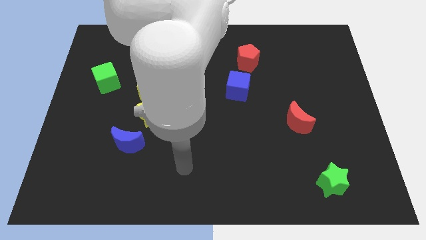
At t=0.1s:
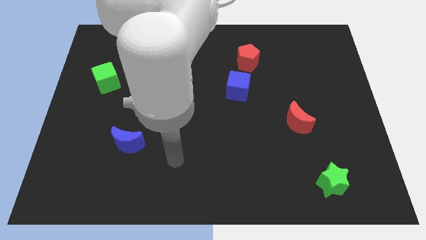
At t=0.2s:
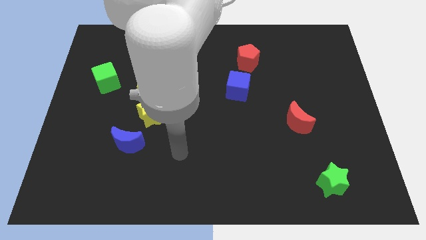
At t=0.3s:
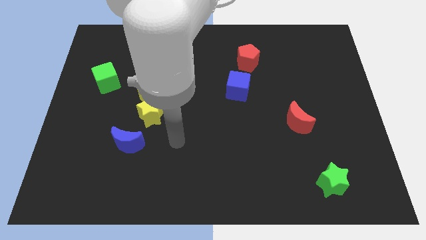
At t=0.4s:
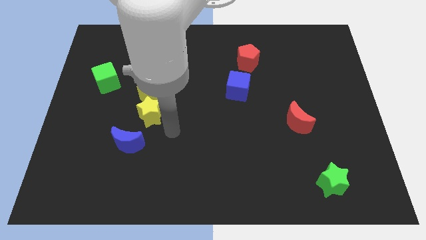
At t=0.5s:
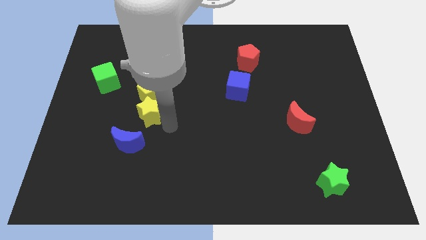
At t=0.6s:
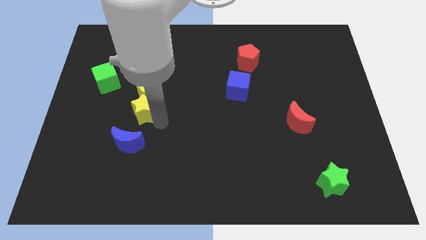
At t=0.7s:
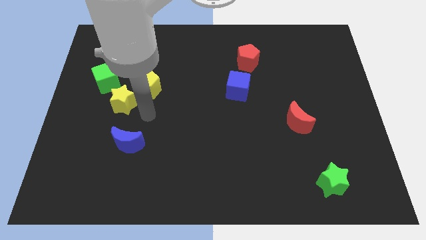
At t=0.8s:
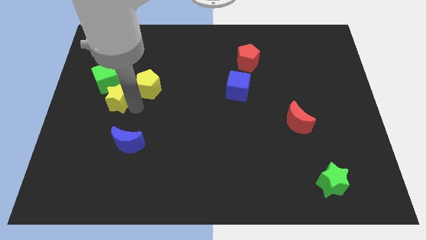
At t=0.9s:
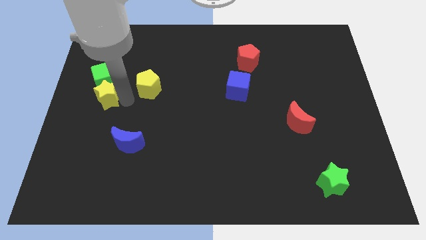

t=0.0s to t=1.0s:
move the yellow pentagon away from the yellow star

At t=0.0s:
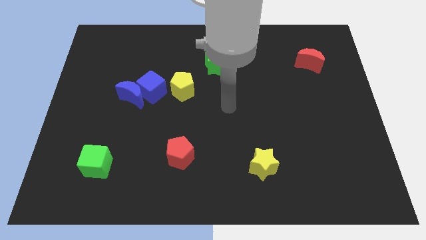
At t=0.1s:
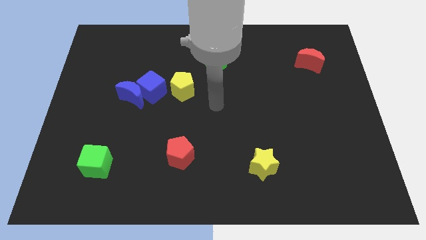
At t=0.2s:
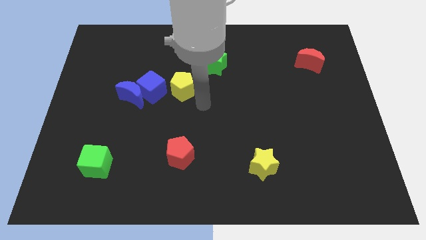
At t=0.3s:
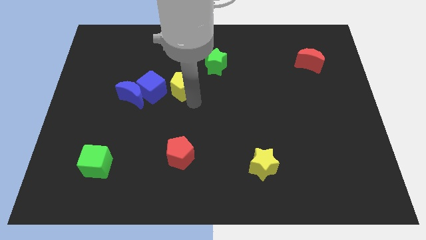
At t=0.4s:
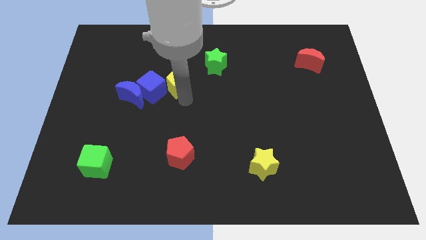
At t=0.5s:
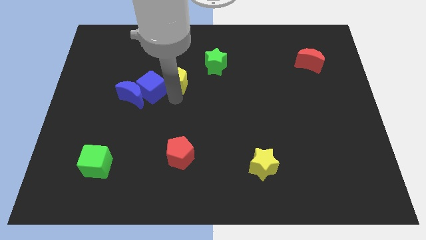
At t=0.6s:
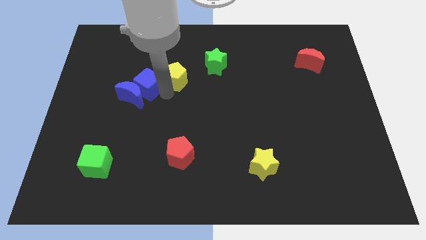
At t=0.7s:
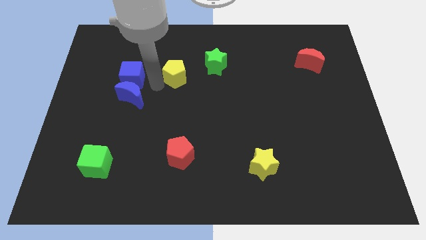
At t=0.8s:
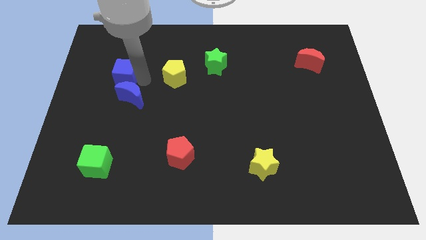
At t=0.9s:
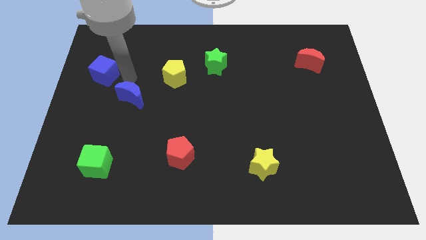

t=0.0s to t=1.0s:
separate the blue moon from the blue cube

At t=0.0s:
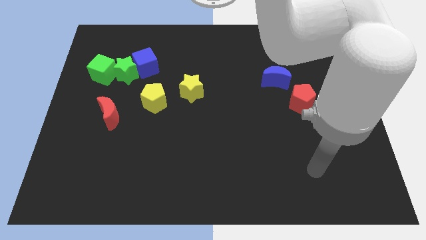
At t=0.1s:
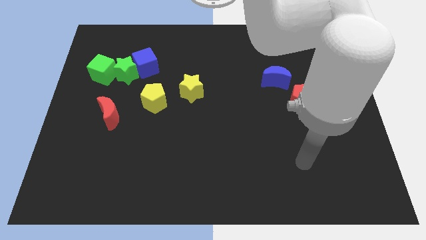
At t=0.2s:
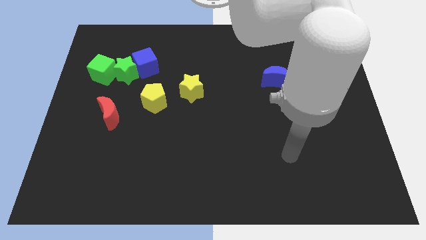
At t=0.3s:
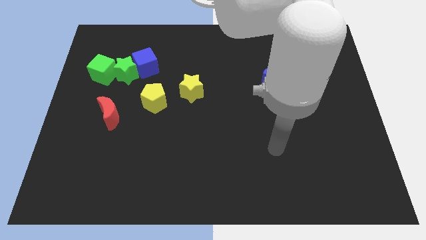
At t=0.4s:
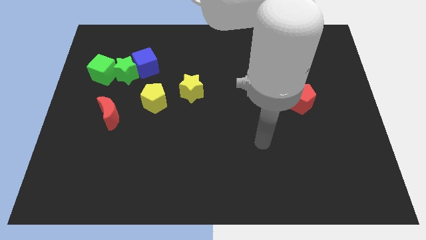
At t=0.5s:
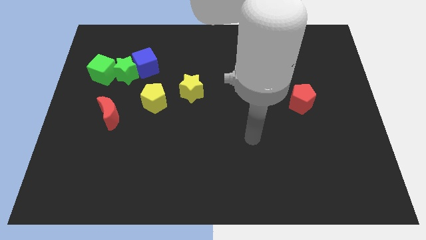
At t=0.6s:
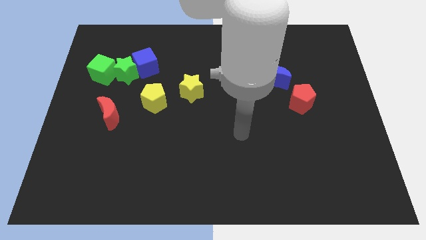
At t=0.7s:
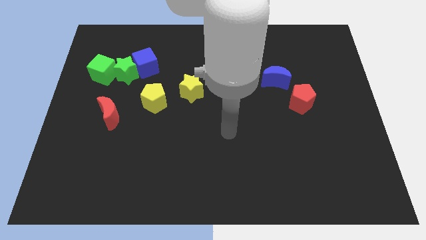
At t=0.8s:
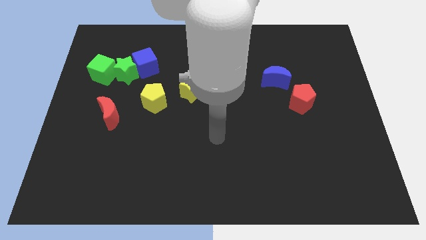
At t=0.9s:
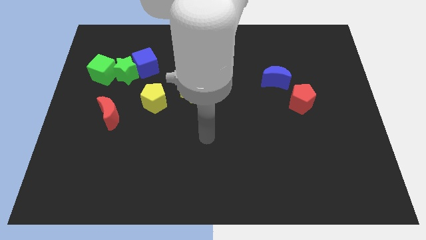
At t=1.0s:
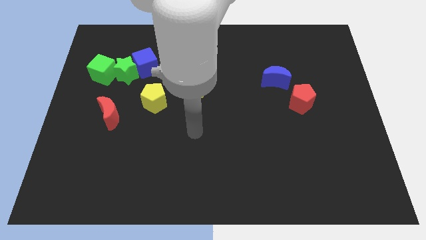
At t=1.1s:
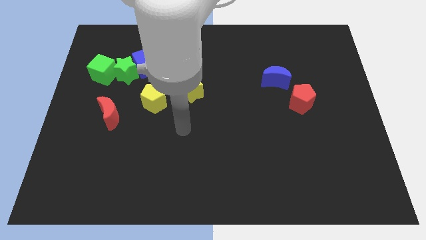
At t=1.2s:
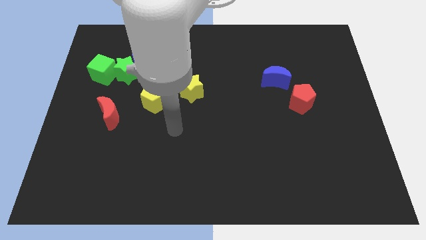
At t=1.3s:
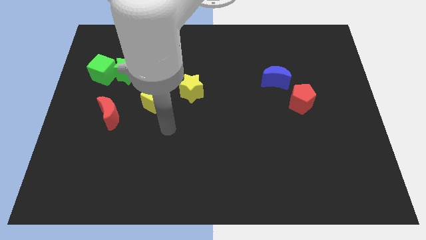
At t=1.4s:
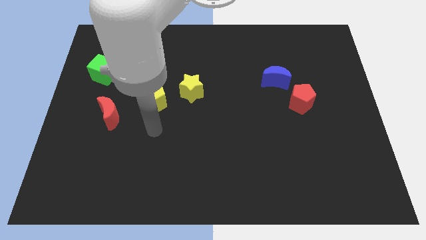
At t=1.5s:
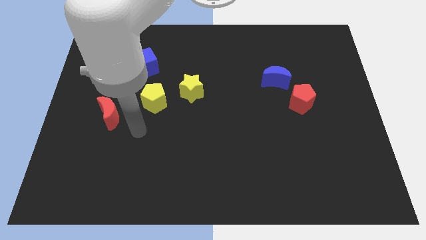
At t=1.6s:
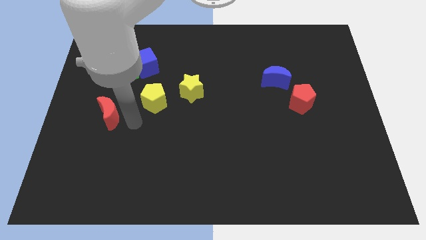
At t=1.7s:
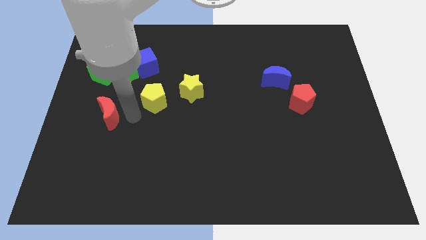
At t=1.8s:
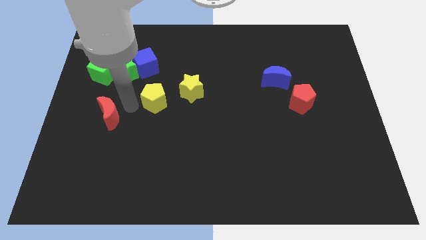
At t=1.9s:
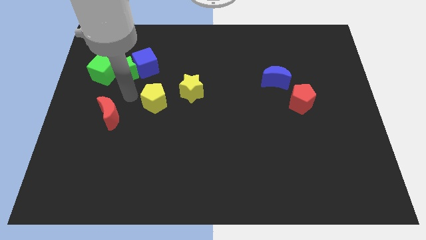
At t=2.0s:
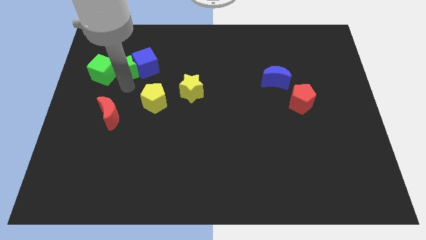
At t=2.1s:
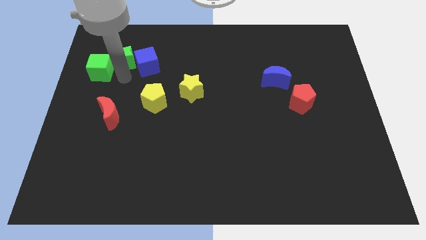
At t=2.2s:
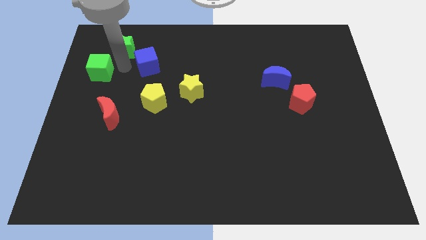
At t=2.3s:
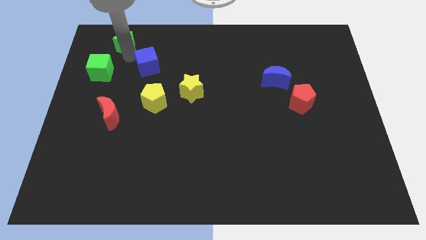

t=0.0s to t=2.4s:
move the blue cube away from the green star

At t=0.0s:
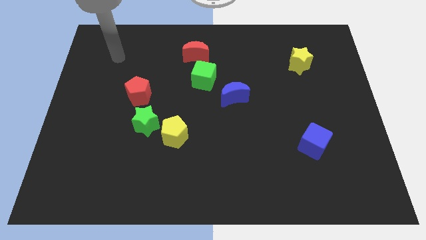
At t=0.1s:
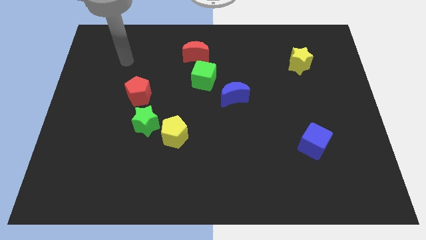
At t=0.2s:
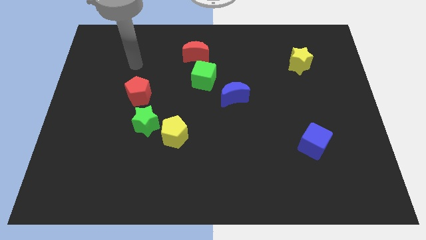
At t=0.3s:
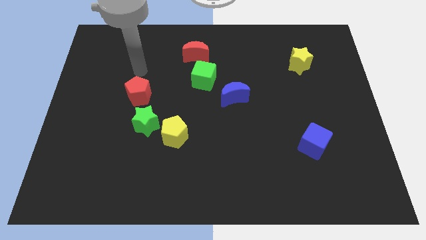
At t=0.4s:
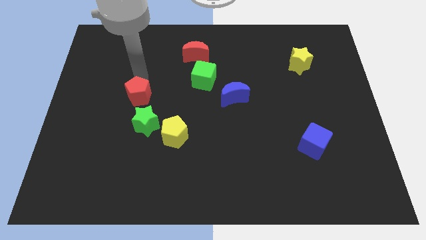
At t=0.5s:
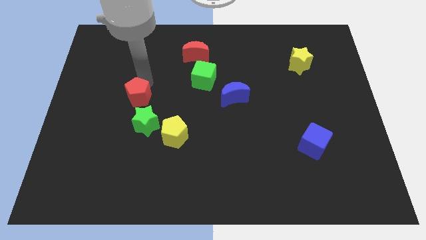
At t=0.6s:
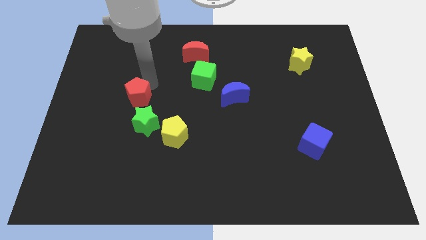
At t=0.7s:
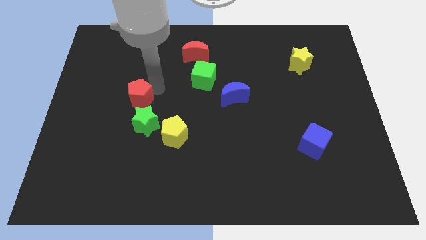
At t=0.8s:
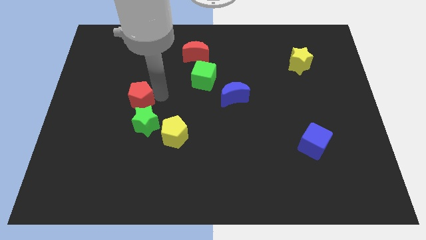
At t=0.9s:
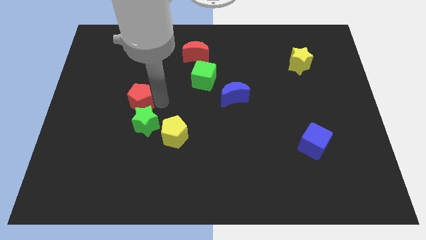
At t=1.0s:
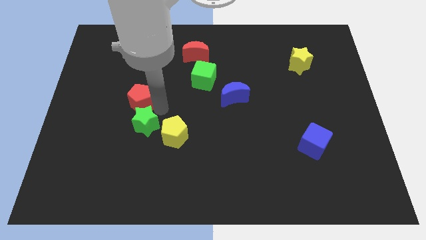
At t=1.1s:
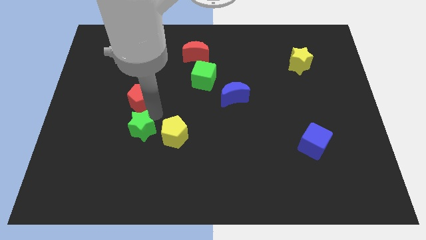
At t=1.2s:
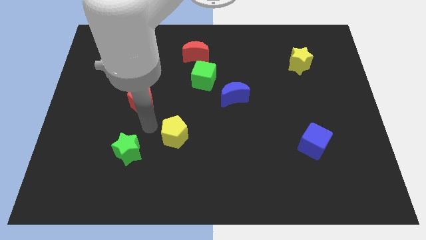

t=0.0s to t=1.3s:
move the yellow pentagon away from the green star

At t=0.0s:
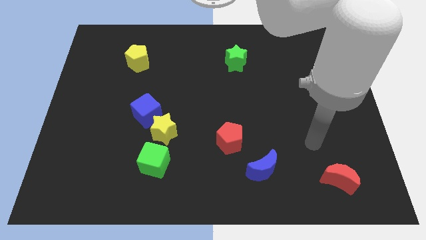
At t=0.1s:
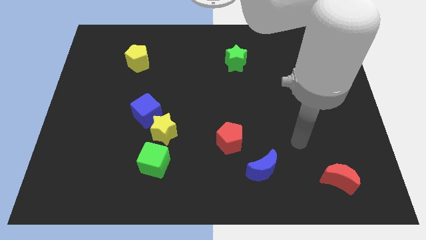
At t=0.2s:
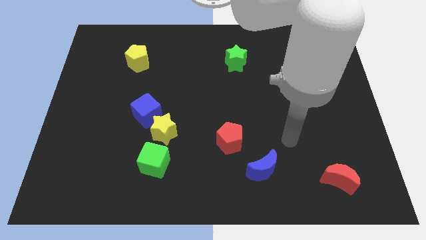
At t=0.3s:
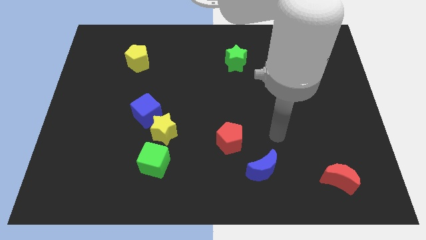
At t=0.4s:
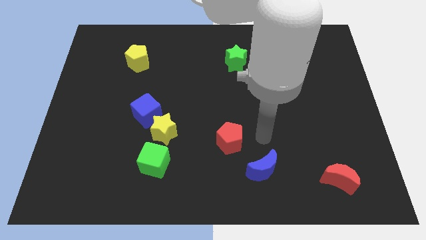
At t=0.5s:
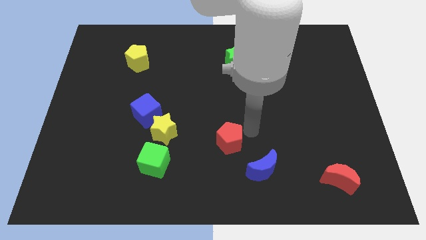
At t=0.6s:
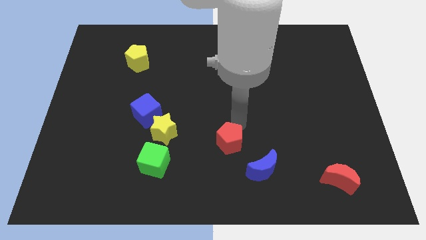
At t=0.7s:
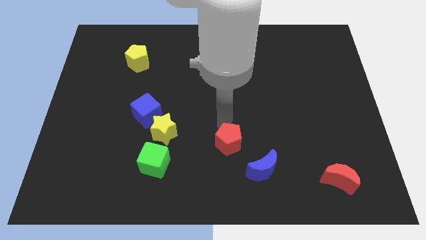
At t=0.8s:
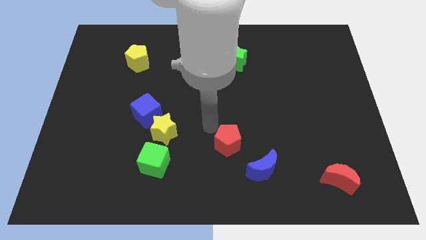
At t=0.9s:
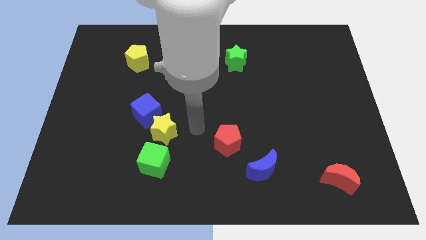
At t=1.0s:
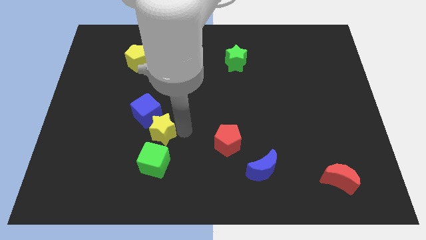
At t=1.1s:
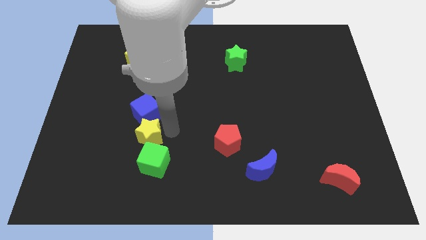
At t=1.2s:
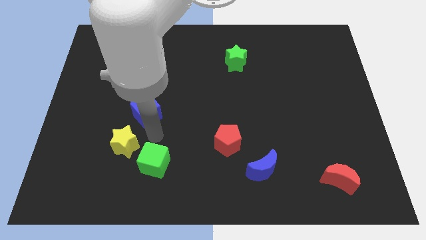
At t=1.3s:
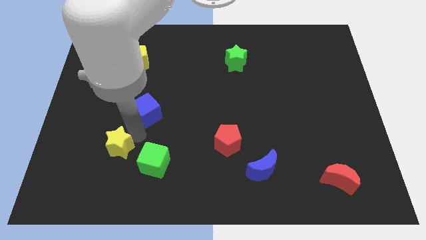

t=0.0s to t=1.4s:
move the blue cube away from the yellow star

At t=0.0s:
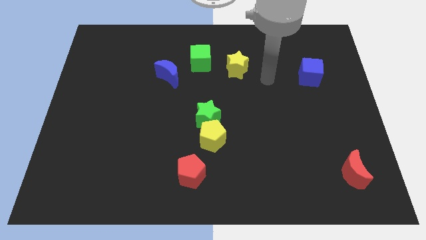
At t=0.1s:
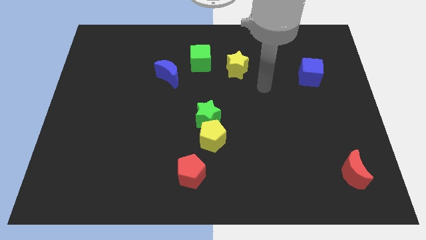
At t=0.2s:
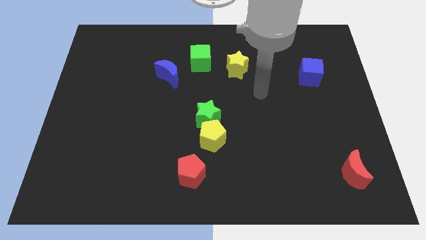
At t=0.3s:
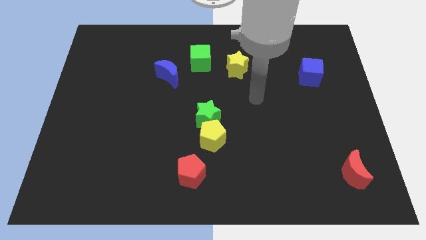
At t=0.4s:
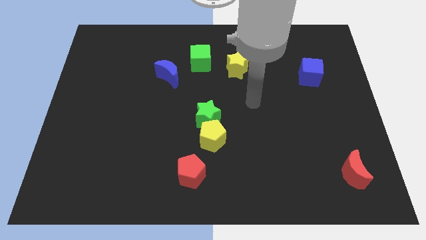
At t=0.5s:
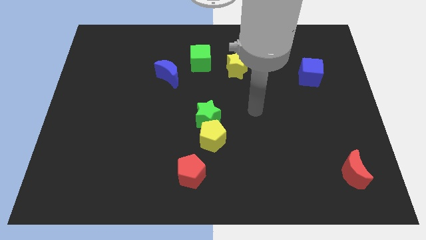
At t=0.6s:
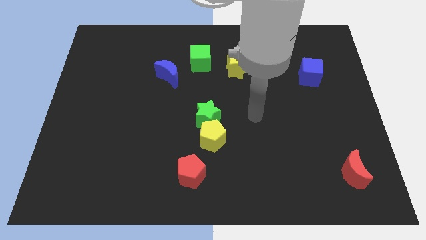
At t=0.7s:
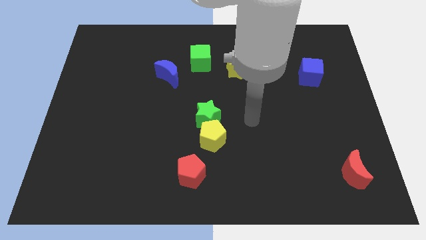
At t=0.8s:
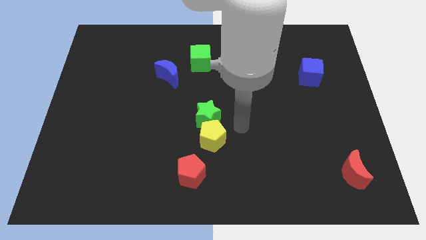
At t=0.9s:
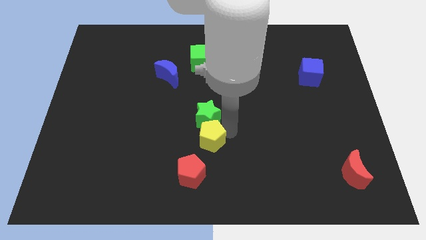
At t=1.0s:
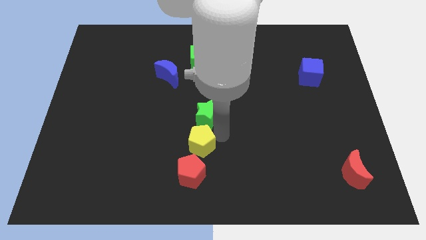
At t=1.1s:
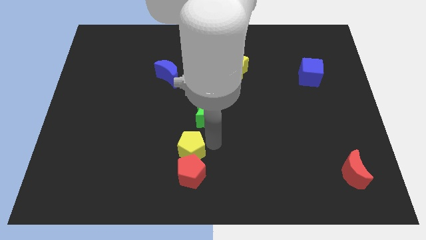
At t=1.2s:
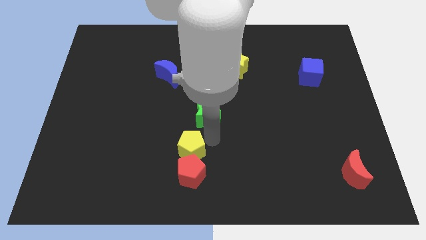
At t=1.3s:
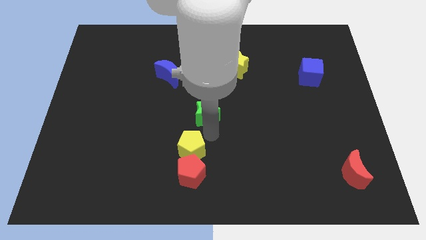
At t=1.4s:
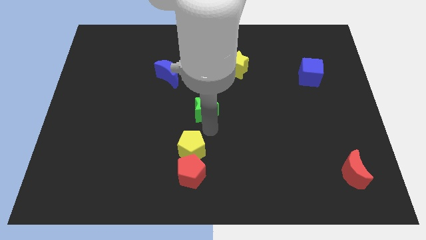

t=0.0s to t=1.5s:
move the green star away from the yellow pentagon

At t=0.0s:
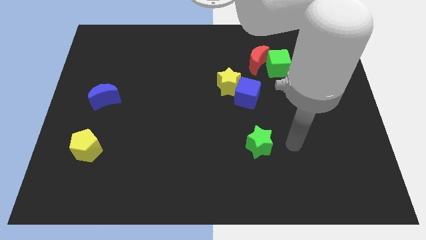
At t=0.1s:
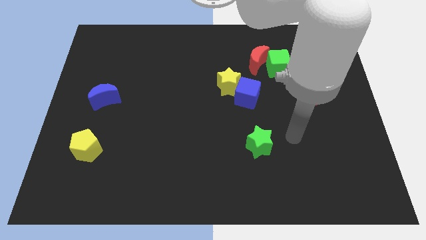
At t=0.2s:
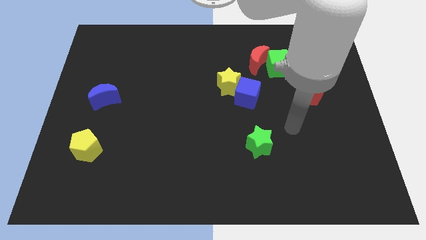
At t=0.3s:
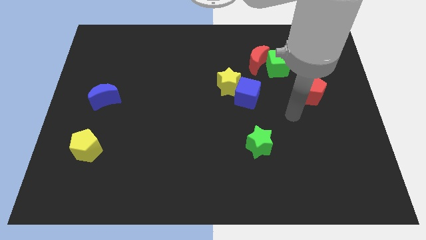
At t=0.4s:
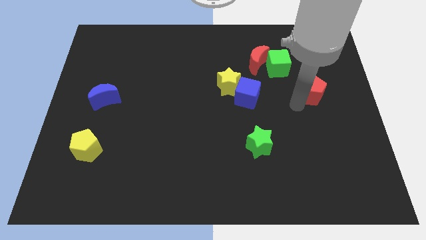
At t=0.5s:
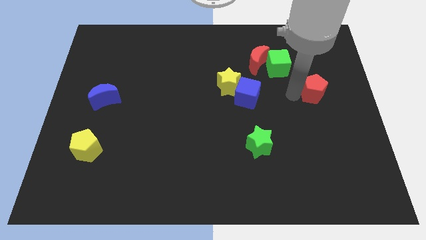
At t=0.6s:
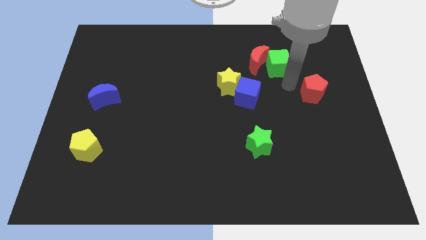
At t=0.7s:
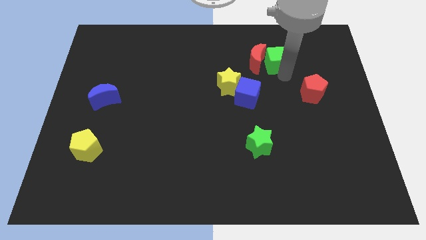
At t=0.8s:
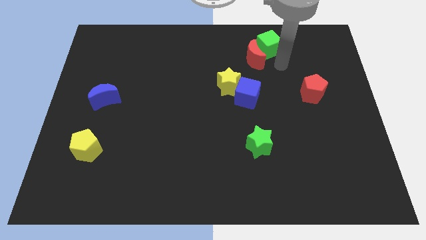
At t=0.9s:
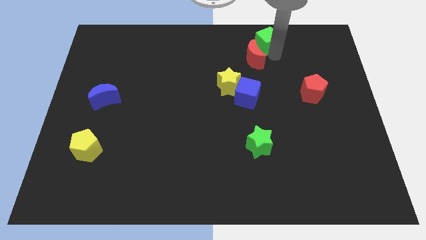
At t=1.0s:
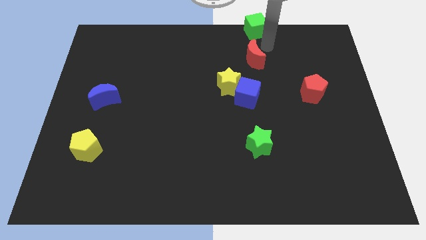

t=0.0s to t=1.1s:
move the red moon away from the green cube
